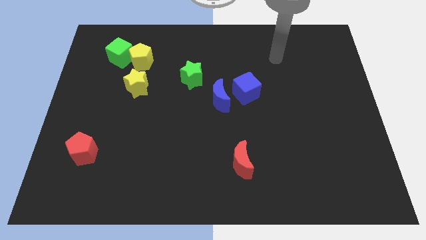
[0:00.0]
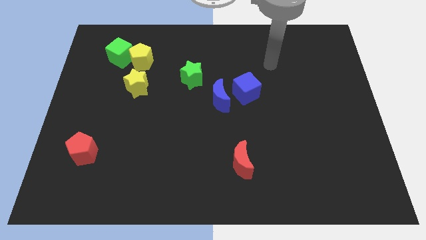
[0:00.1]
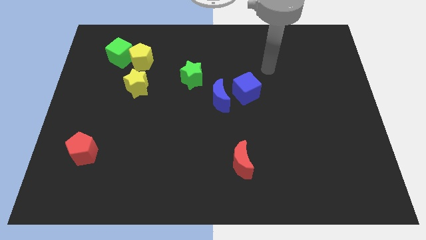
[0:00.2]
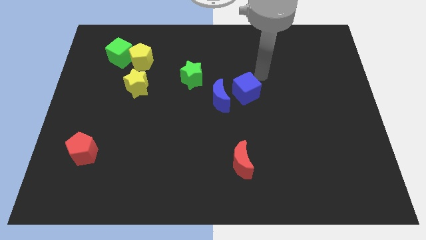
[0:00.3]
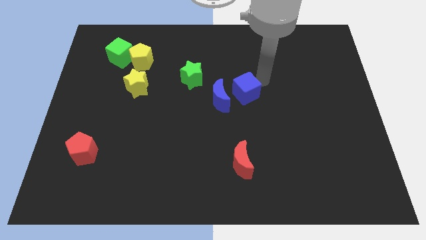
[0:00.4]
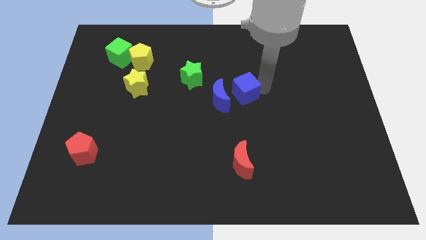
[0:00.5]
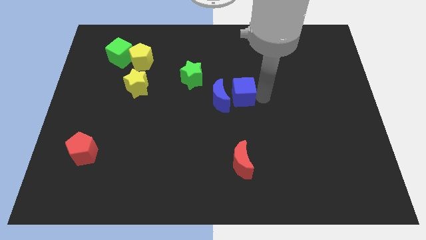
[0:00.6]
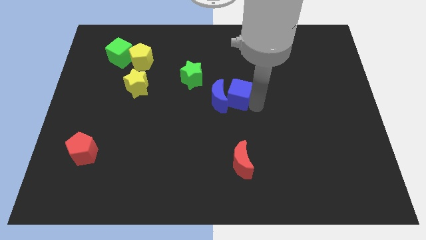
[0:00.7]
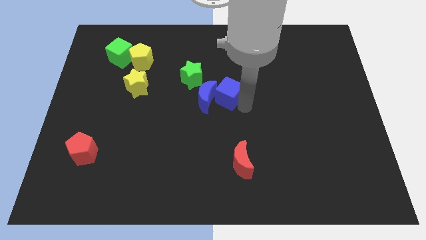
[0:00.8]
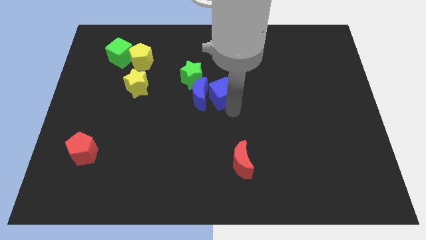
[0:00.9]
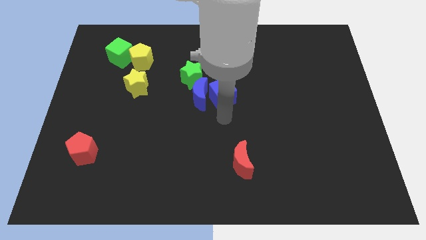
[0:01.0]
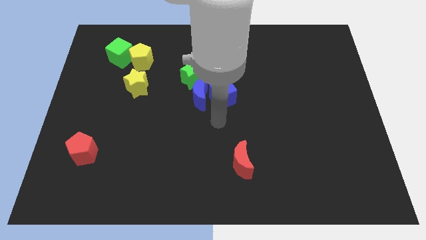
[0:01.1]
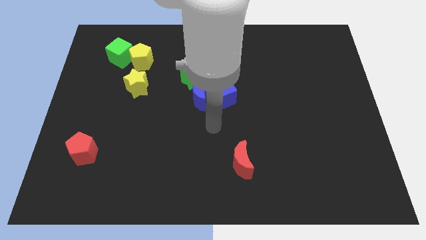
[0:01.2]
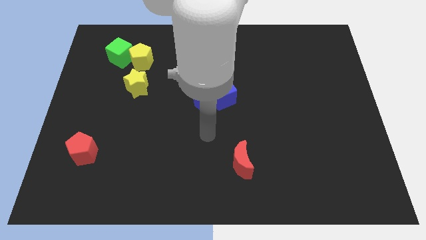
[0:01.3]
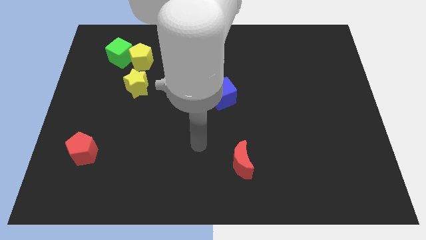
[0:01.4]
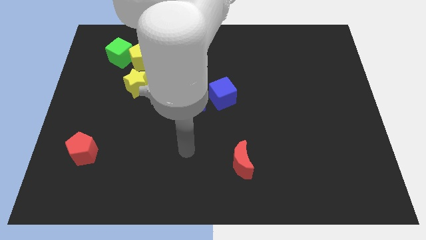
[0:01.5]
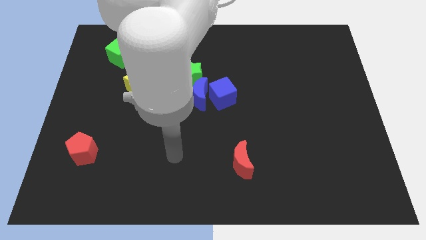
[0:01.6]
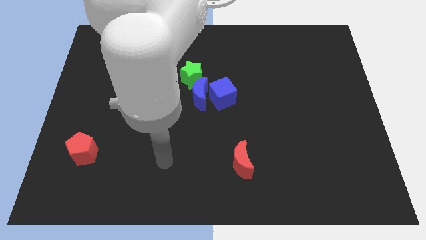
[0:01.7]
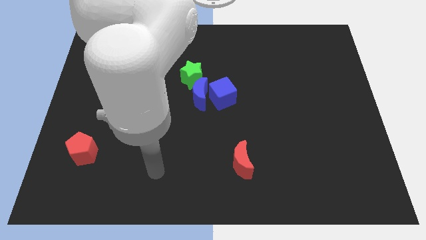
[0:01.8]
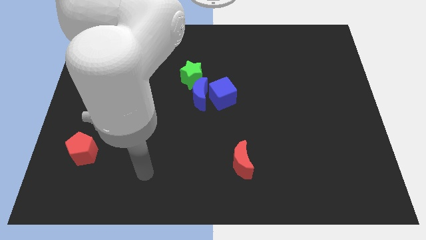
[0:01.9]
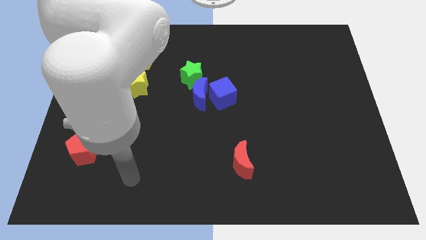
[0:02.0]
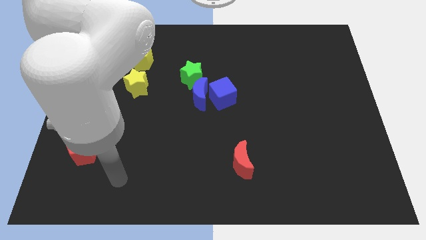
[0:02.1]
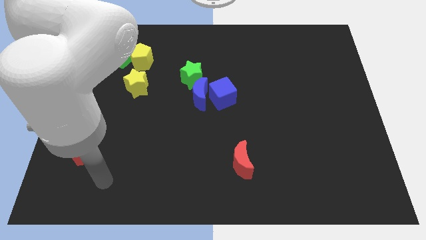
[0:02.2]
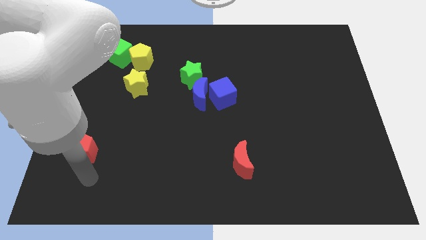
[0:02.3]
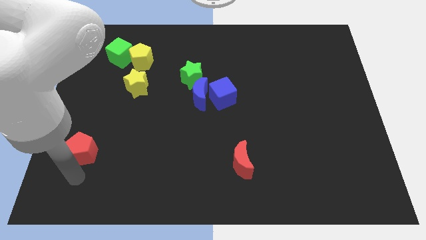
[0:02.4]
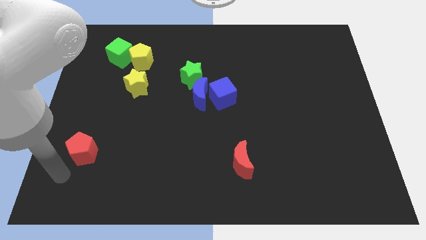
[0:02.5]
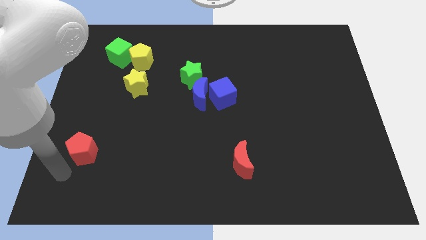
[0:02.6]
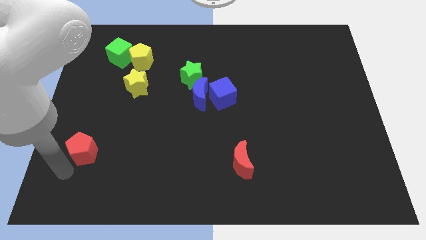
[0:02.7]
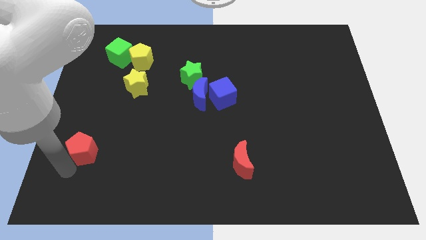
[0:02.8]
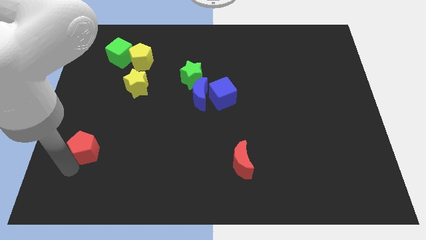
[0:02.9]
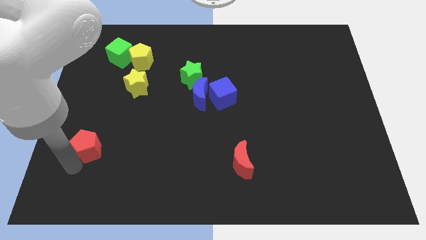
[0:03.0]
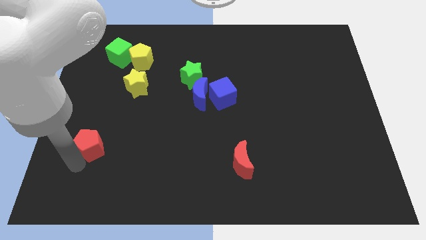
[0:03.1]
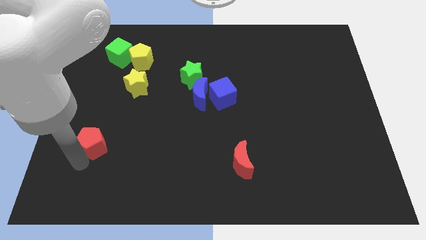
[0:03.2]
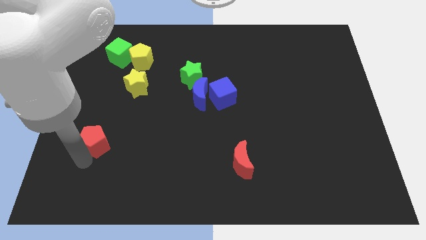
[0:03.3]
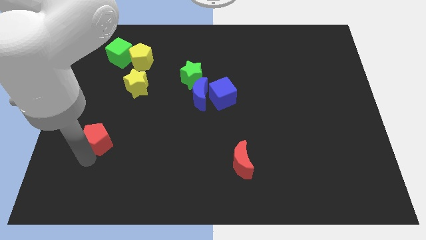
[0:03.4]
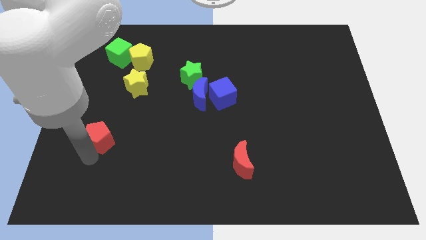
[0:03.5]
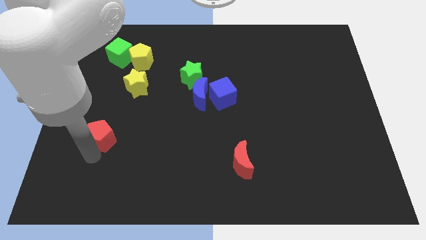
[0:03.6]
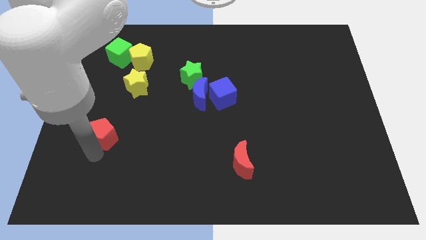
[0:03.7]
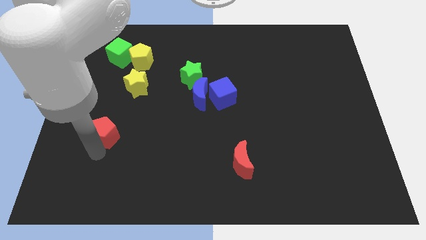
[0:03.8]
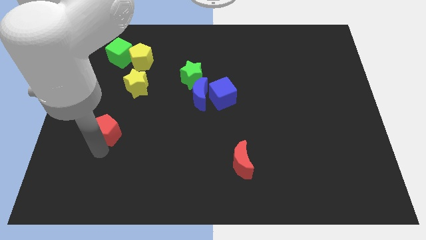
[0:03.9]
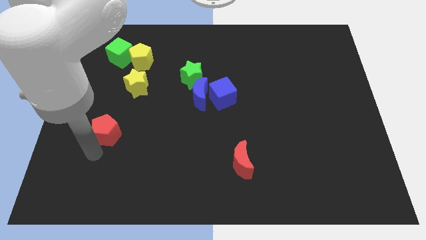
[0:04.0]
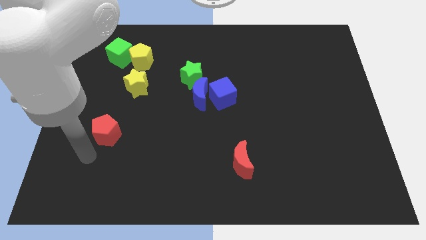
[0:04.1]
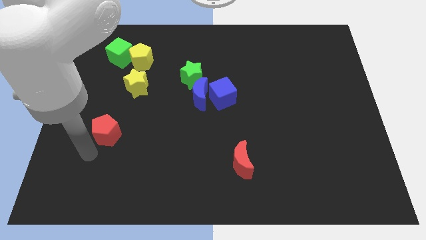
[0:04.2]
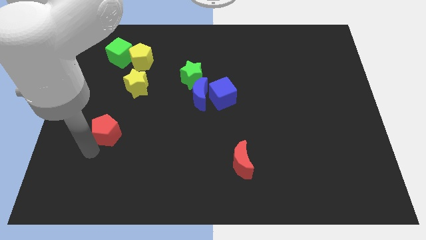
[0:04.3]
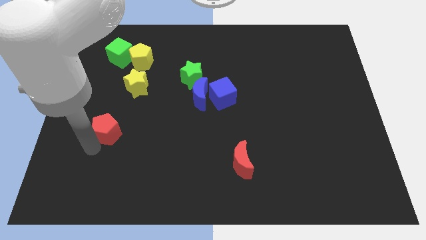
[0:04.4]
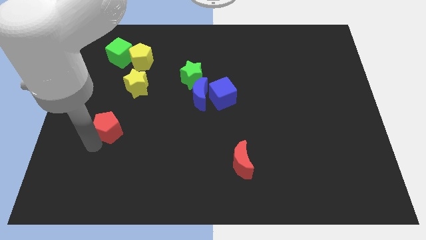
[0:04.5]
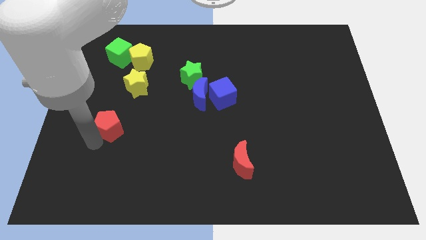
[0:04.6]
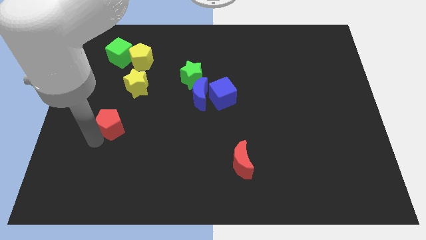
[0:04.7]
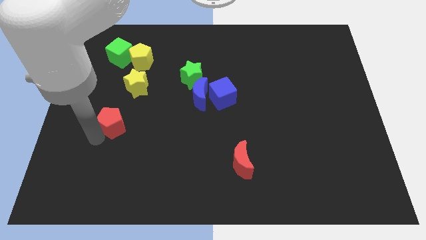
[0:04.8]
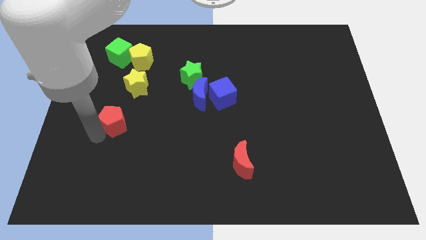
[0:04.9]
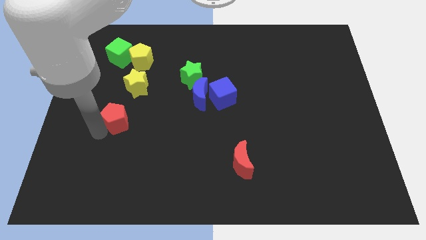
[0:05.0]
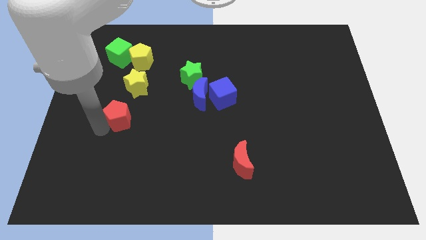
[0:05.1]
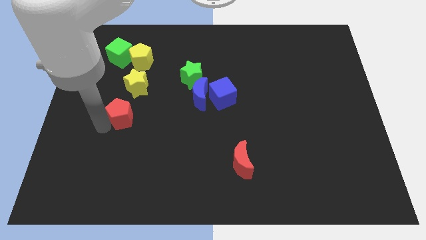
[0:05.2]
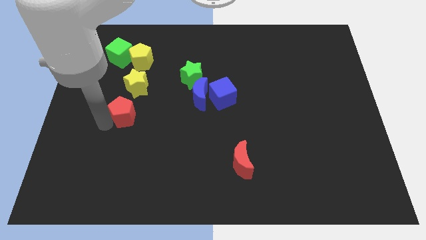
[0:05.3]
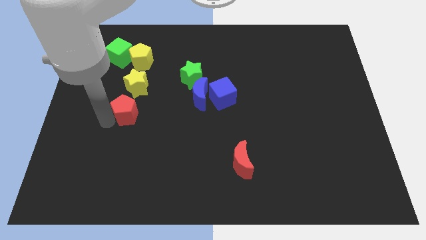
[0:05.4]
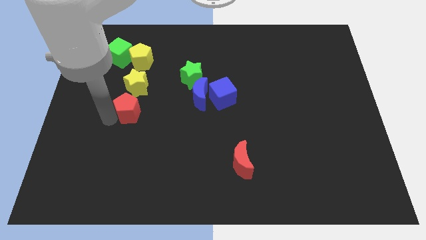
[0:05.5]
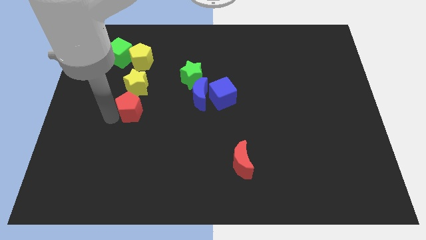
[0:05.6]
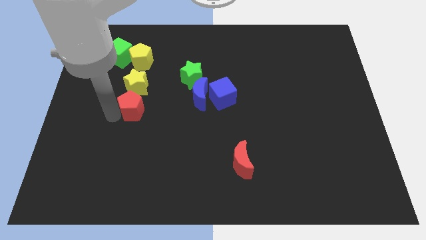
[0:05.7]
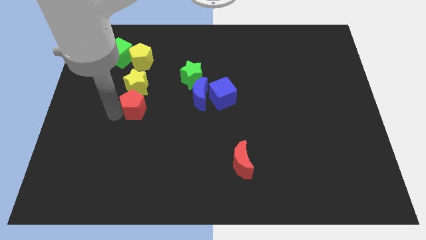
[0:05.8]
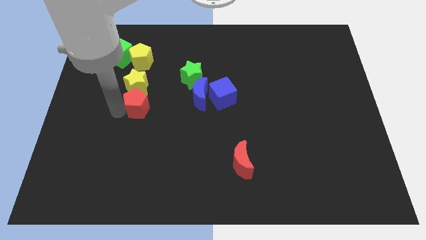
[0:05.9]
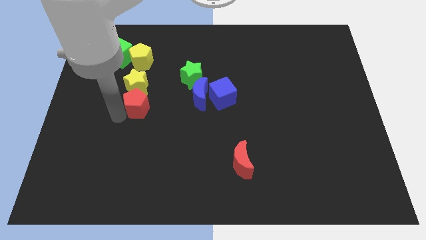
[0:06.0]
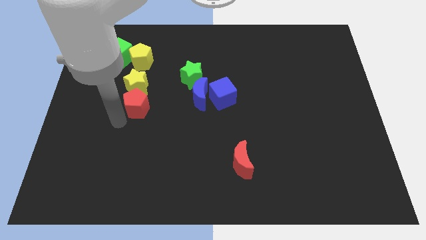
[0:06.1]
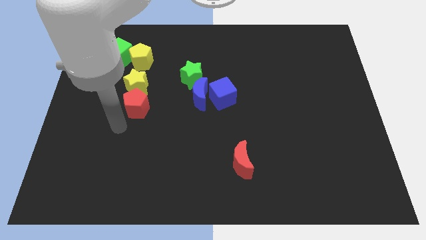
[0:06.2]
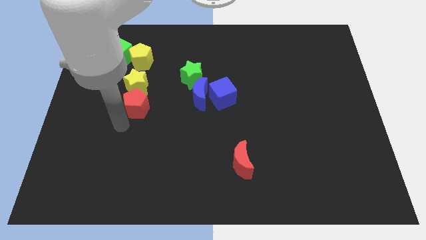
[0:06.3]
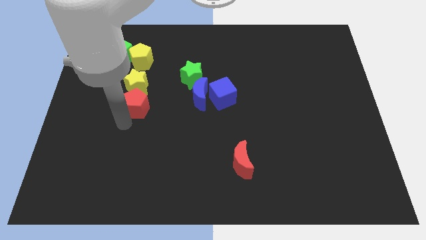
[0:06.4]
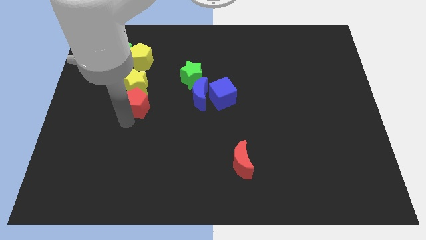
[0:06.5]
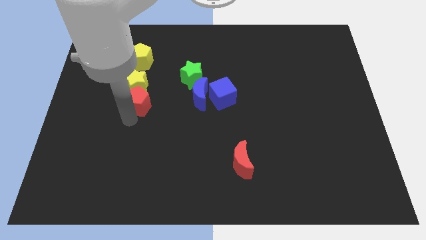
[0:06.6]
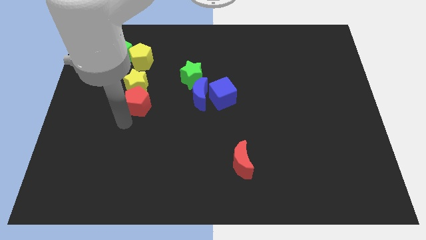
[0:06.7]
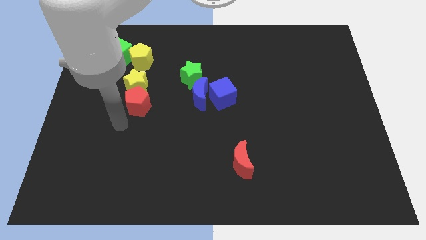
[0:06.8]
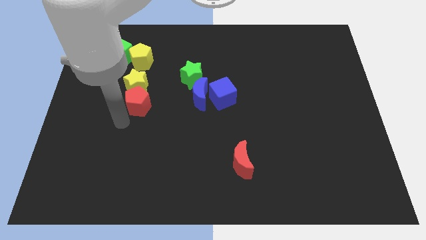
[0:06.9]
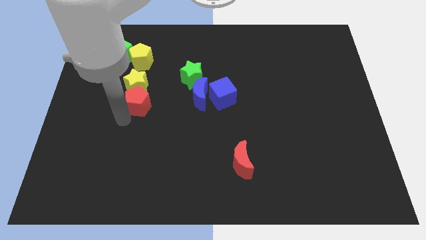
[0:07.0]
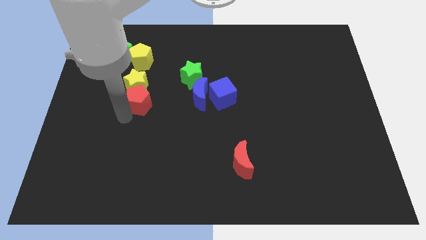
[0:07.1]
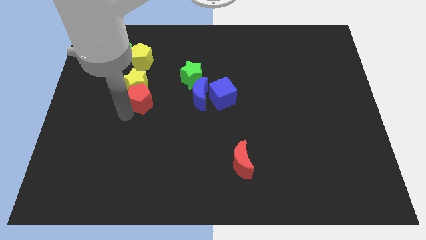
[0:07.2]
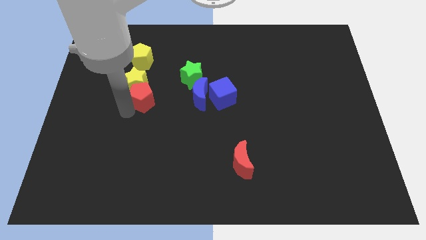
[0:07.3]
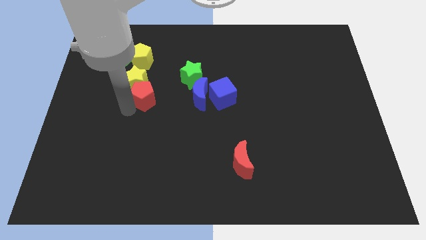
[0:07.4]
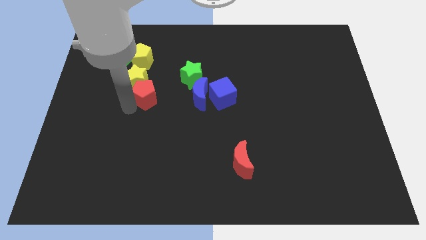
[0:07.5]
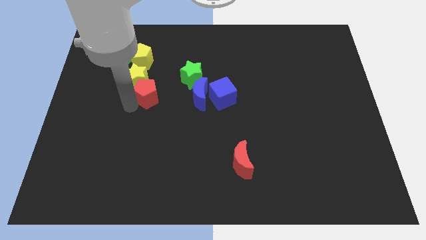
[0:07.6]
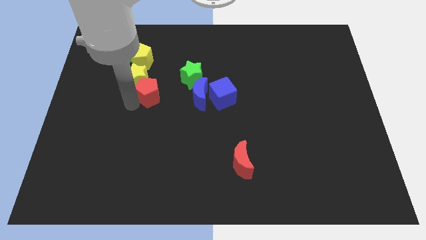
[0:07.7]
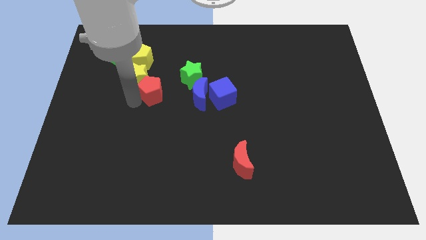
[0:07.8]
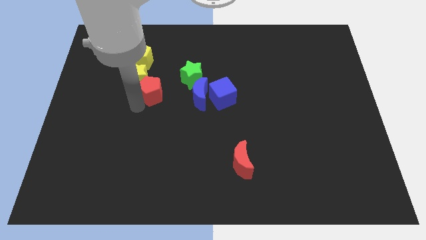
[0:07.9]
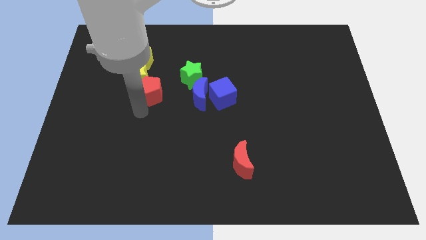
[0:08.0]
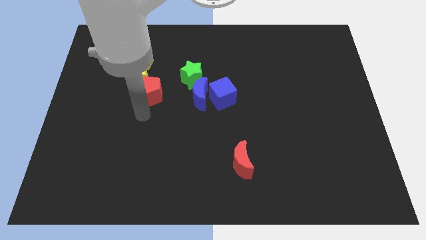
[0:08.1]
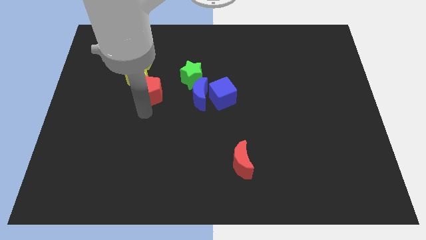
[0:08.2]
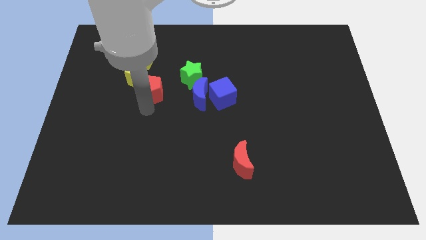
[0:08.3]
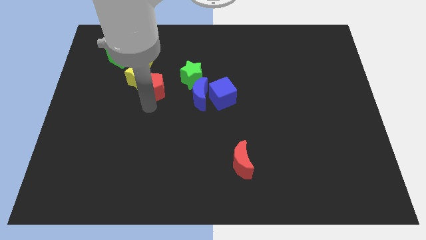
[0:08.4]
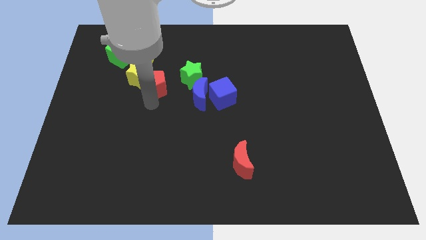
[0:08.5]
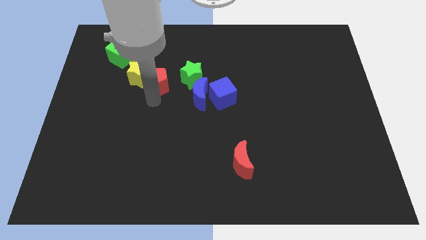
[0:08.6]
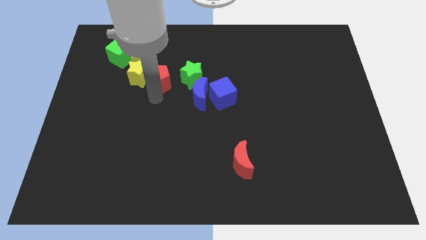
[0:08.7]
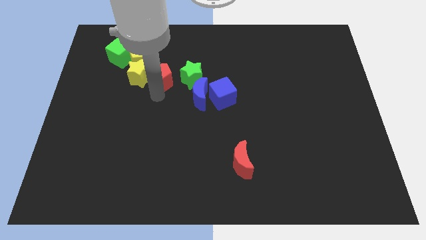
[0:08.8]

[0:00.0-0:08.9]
slide the red pentagon to the top right of the yellow star
